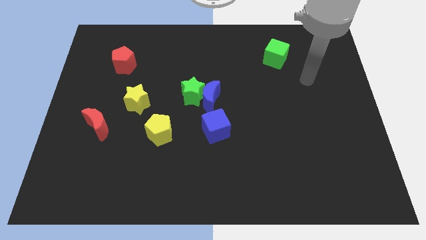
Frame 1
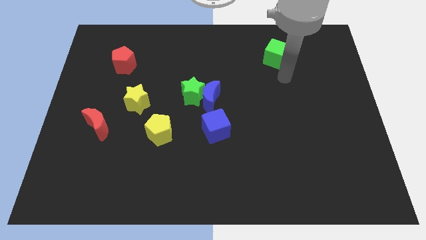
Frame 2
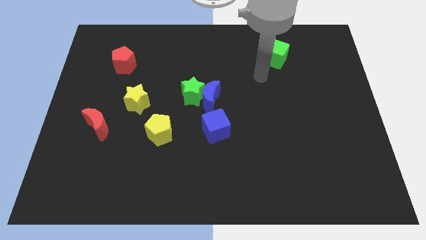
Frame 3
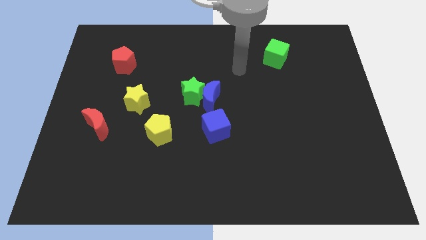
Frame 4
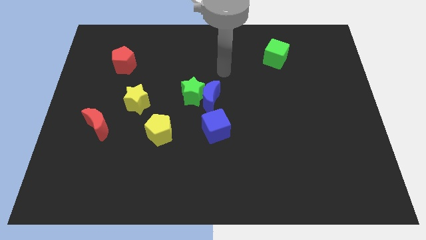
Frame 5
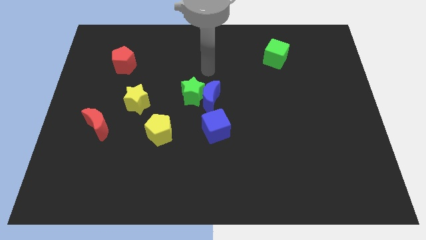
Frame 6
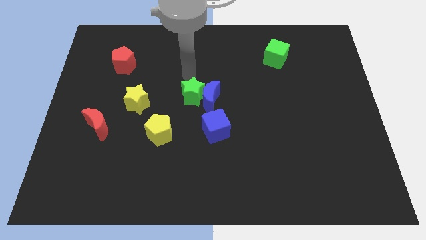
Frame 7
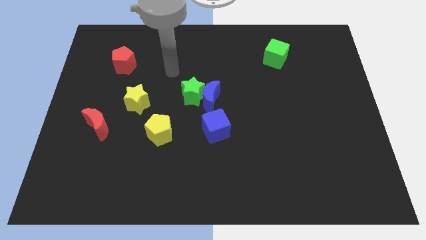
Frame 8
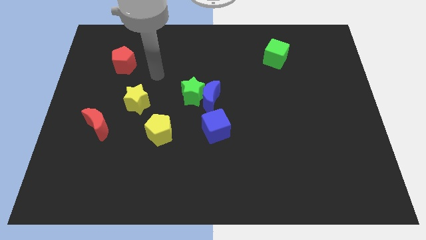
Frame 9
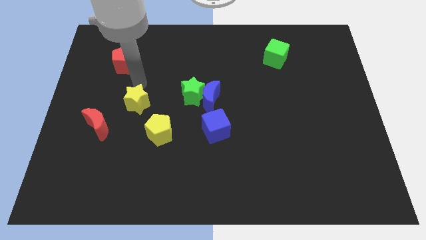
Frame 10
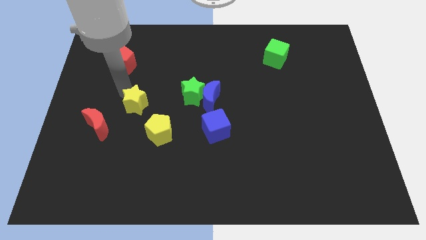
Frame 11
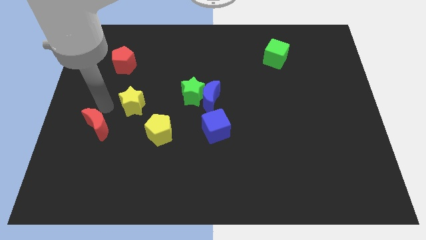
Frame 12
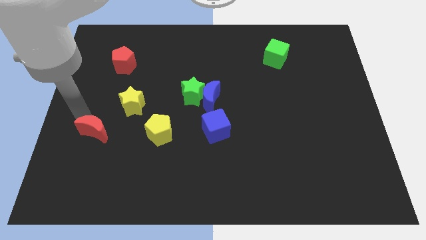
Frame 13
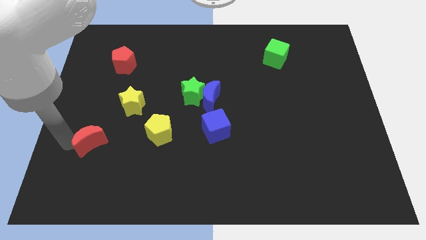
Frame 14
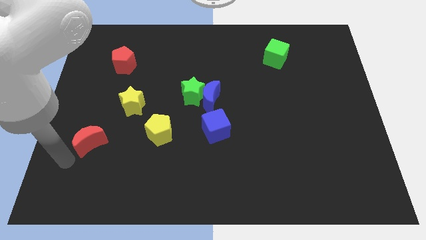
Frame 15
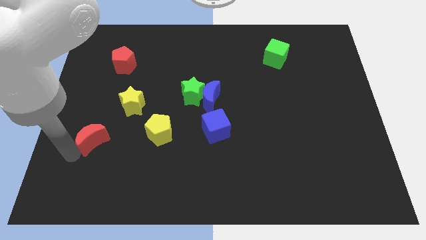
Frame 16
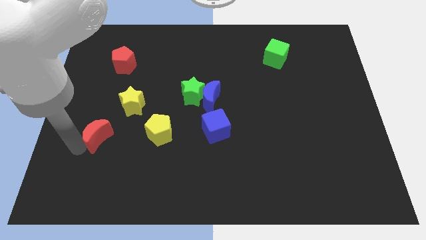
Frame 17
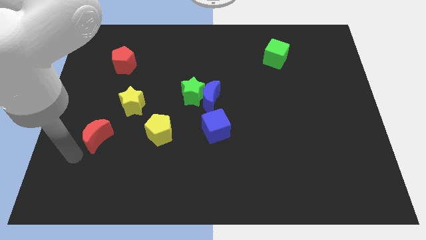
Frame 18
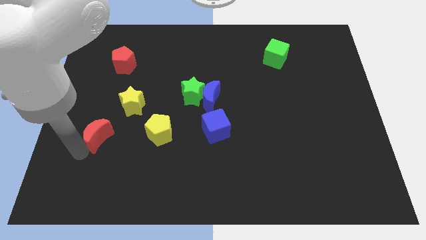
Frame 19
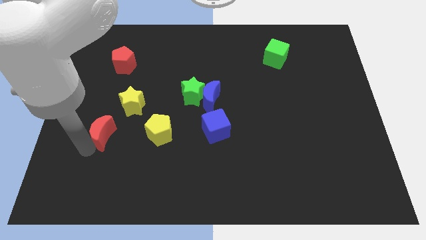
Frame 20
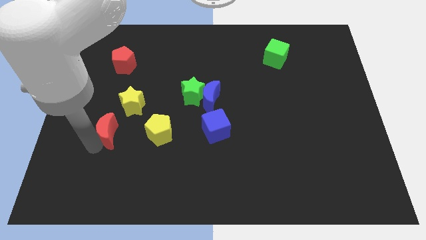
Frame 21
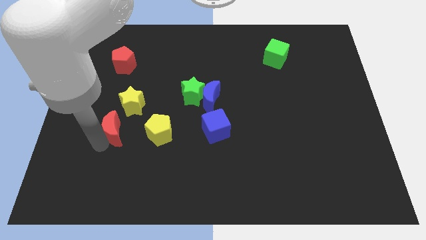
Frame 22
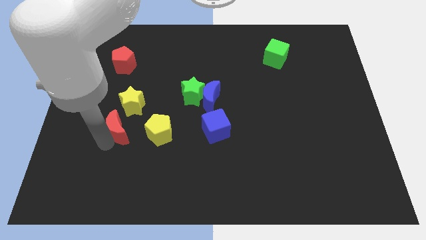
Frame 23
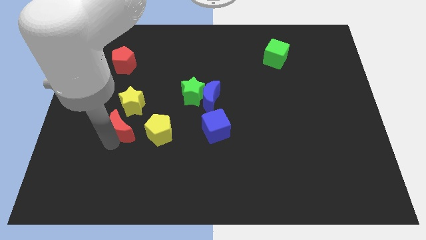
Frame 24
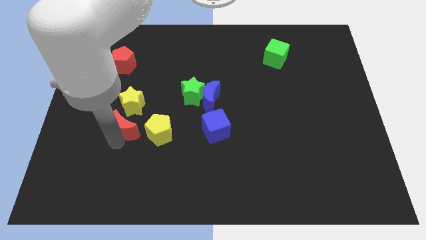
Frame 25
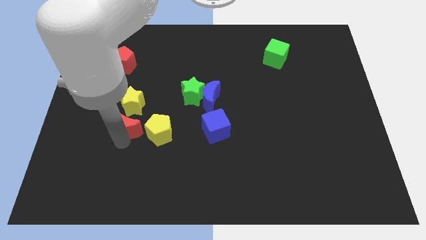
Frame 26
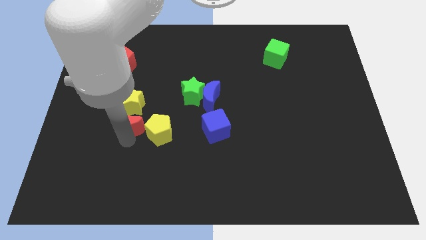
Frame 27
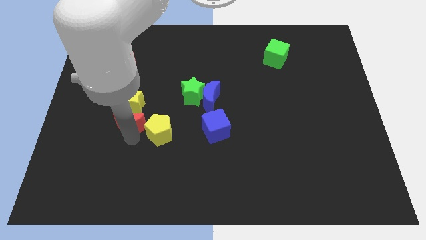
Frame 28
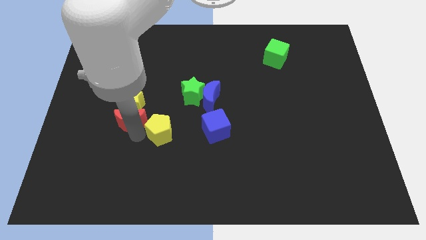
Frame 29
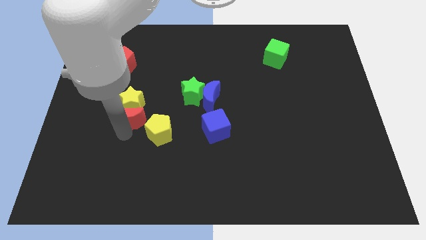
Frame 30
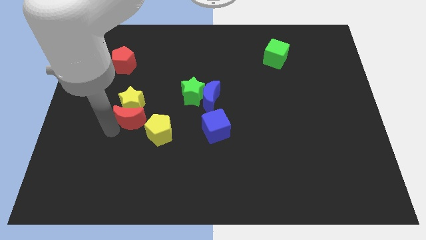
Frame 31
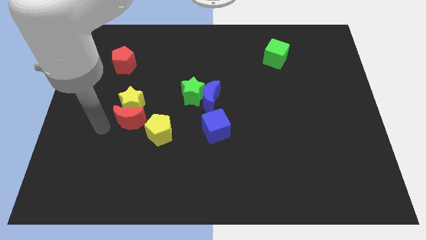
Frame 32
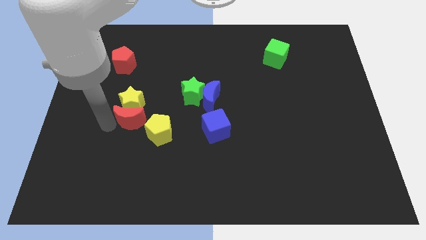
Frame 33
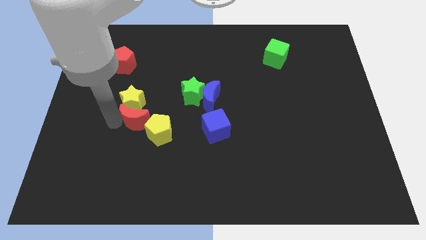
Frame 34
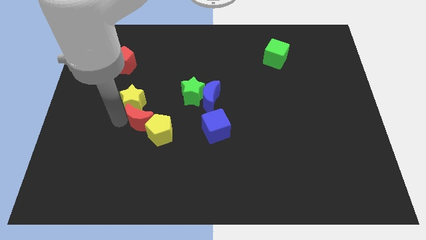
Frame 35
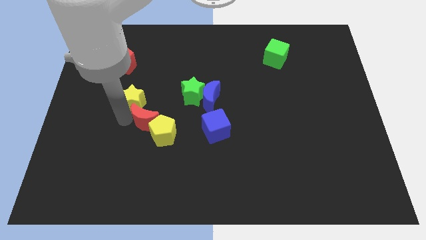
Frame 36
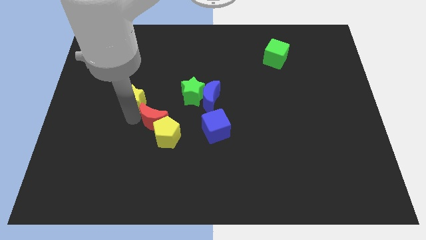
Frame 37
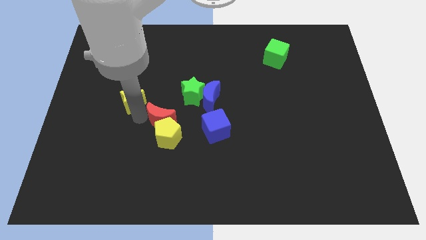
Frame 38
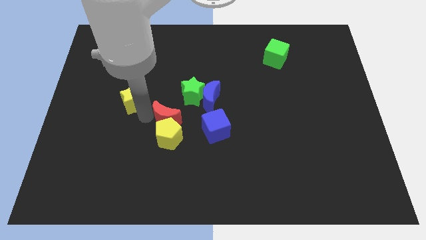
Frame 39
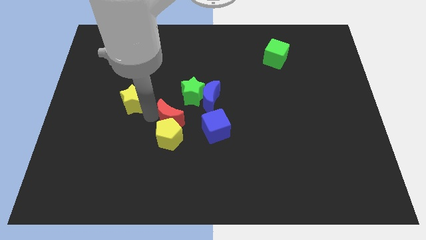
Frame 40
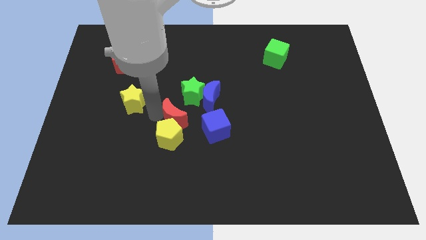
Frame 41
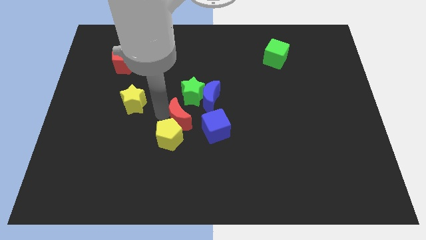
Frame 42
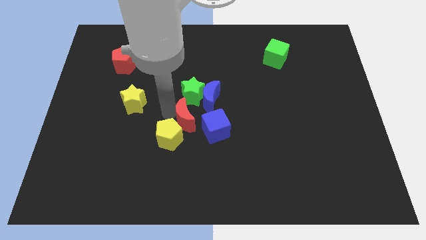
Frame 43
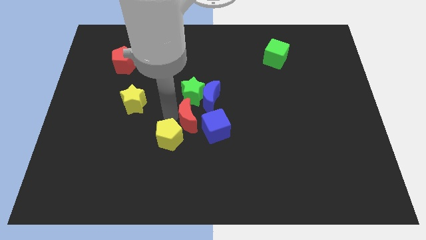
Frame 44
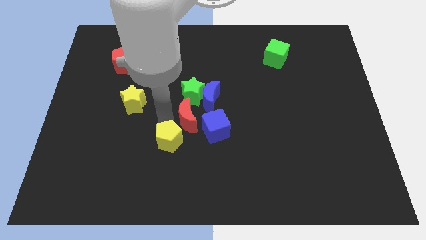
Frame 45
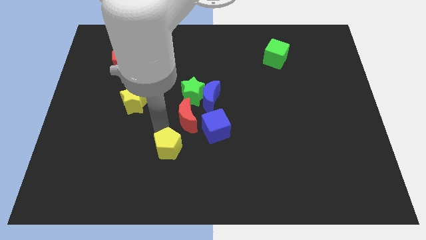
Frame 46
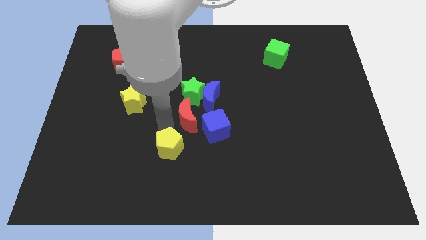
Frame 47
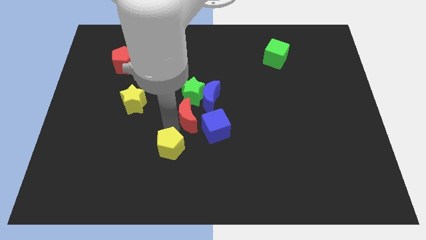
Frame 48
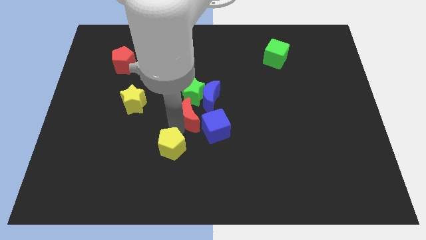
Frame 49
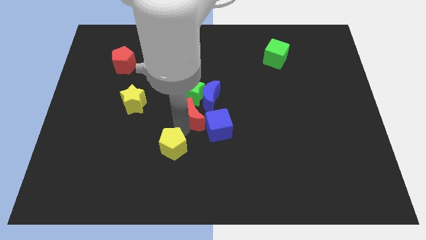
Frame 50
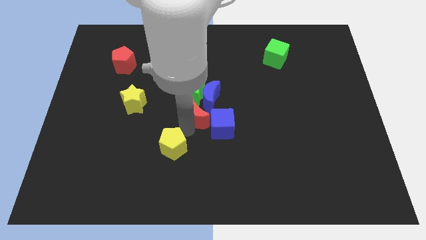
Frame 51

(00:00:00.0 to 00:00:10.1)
put the red moon next to the blue moon

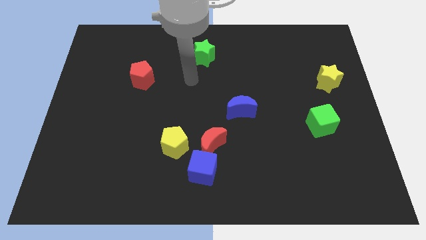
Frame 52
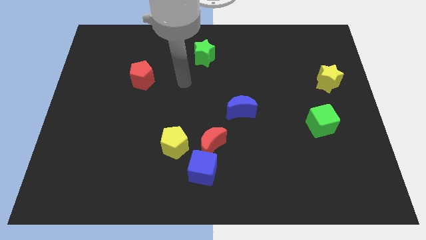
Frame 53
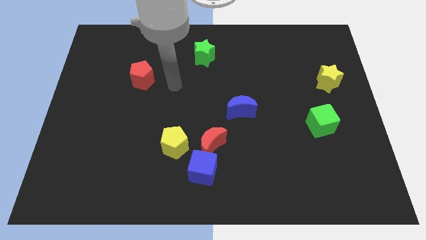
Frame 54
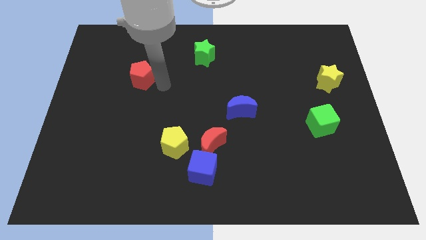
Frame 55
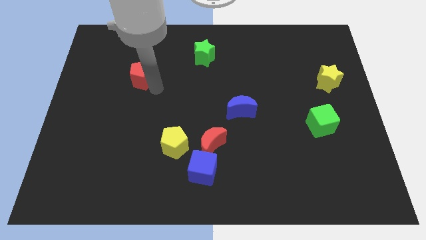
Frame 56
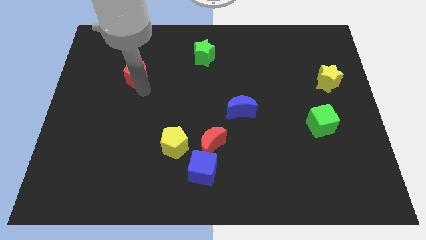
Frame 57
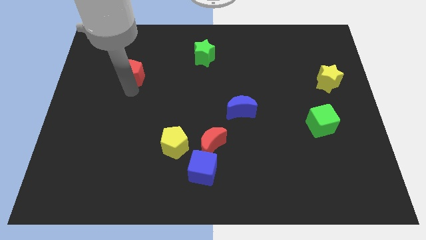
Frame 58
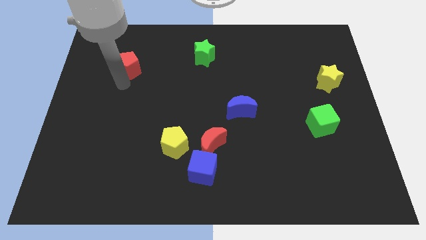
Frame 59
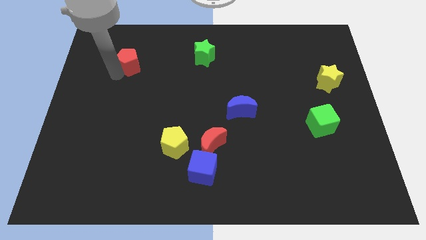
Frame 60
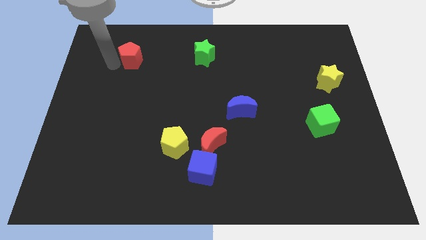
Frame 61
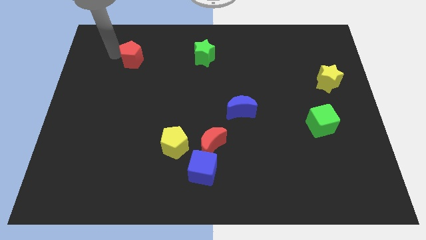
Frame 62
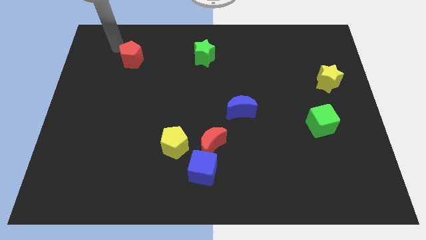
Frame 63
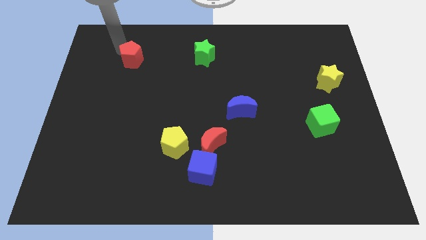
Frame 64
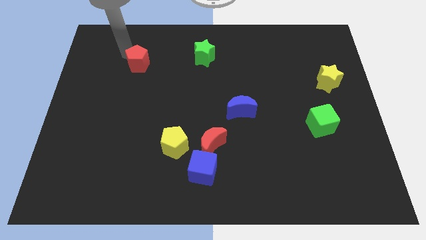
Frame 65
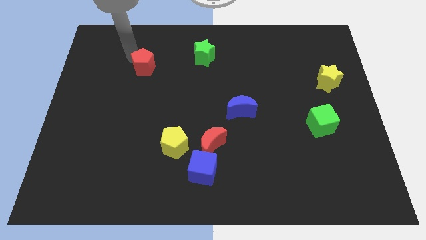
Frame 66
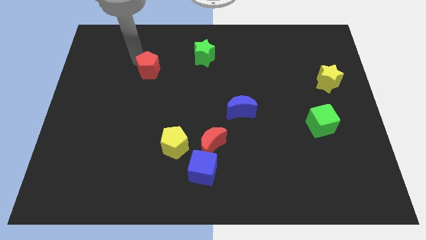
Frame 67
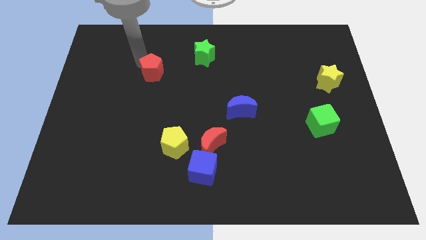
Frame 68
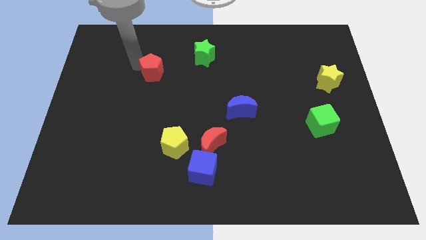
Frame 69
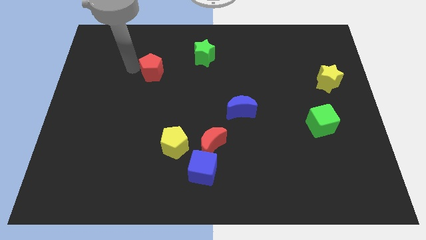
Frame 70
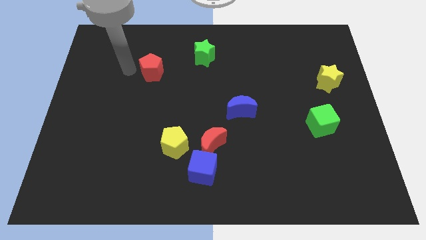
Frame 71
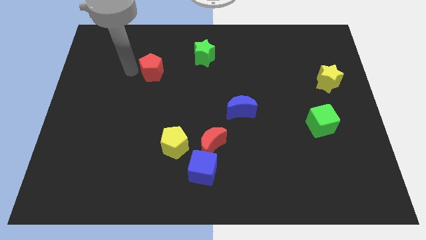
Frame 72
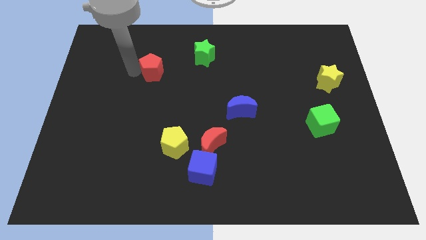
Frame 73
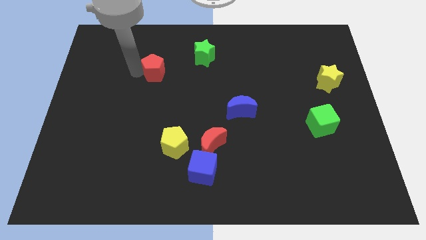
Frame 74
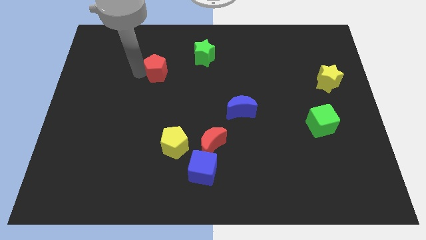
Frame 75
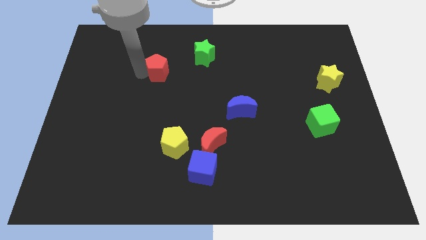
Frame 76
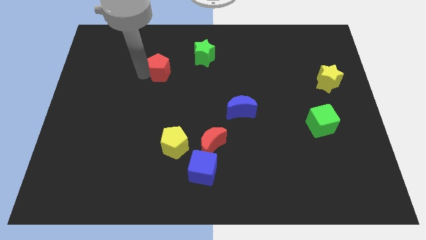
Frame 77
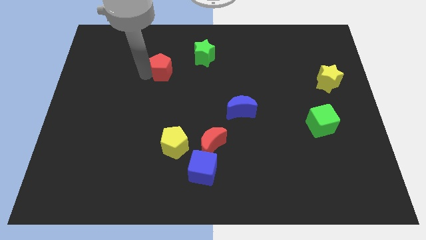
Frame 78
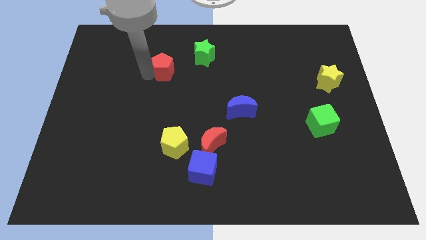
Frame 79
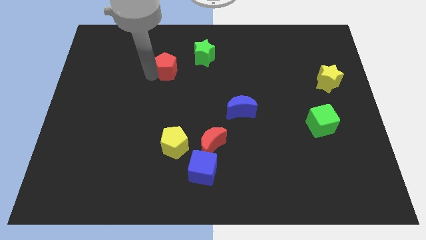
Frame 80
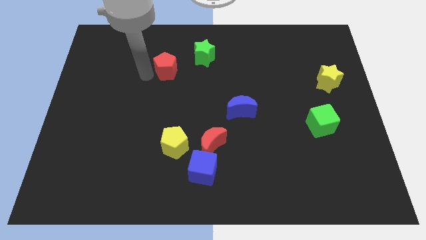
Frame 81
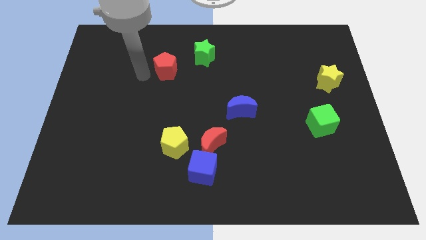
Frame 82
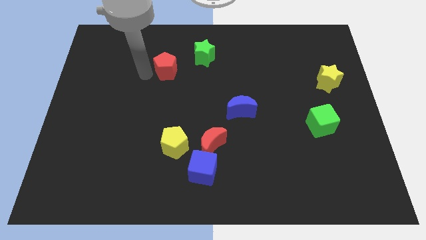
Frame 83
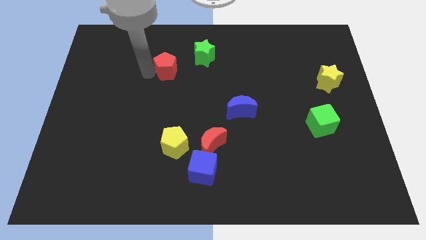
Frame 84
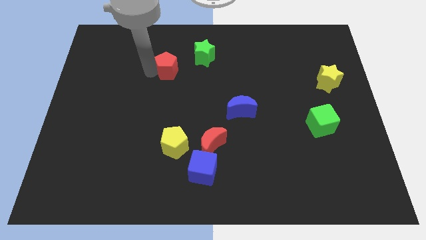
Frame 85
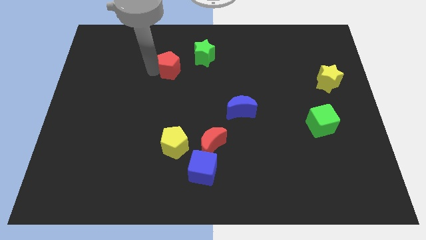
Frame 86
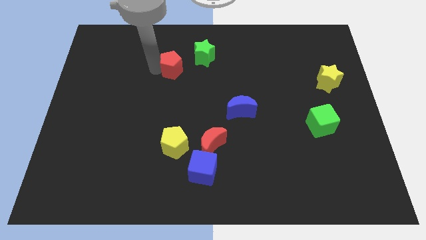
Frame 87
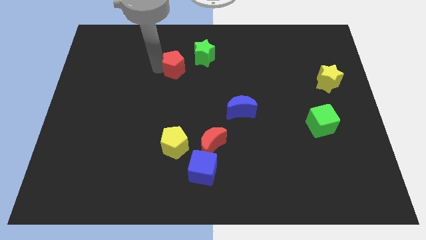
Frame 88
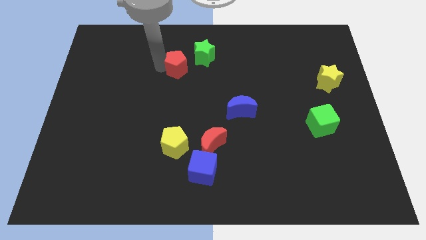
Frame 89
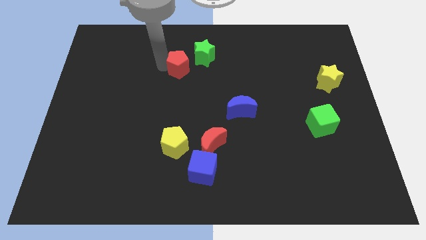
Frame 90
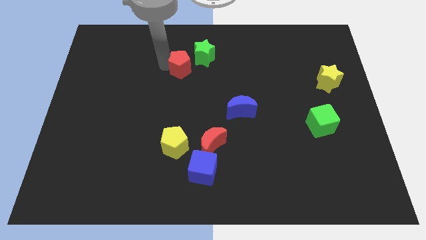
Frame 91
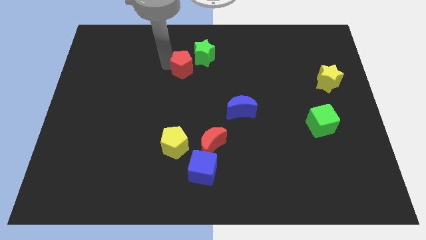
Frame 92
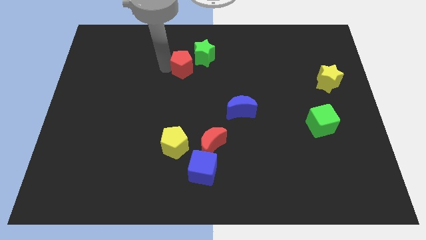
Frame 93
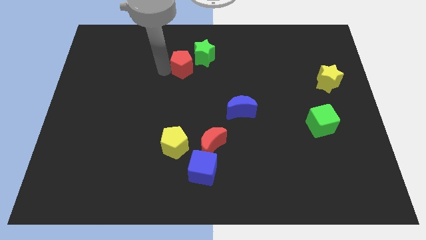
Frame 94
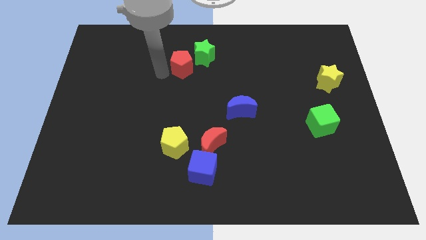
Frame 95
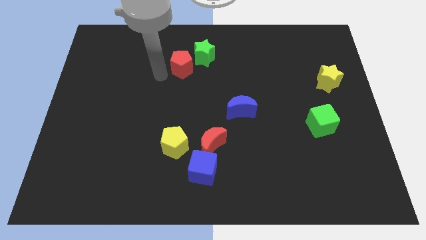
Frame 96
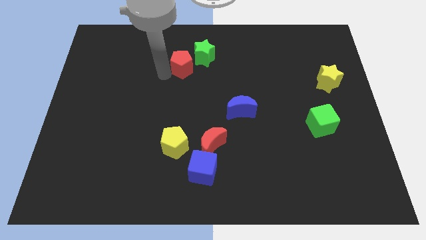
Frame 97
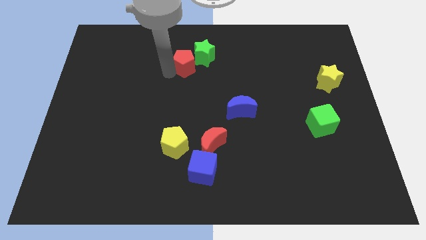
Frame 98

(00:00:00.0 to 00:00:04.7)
put the red pentagon close to the green star
